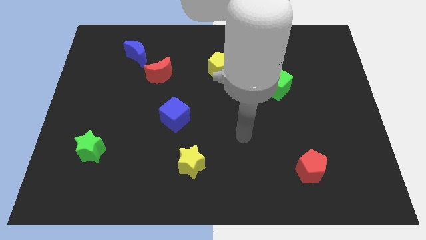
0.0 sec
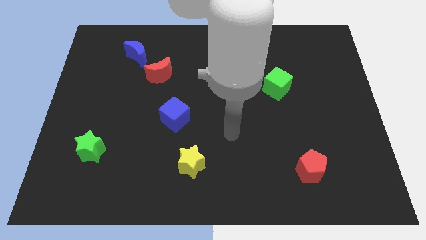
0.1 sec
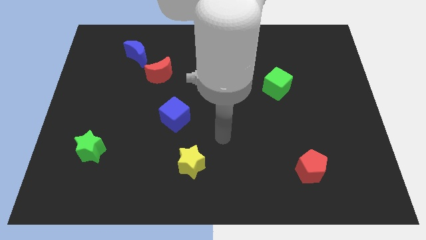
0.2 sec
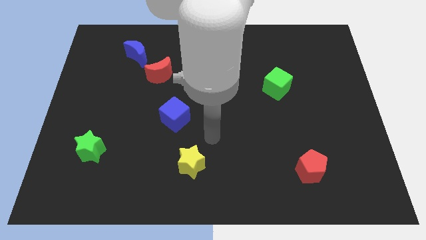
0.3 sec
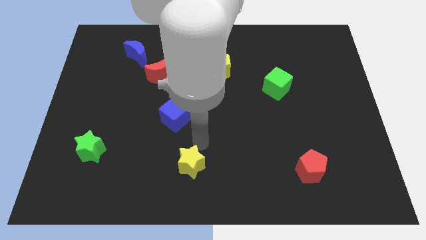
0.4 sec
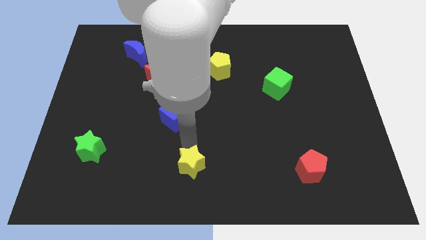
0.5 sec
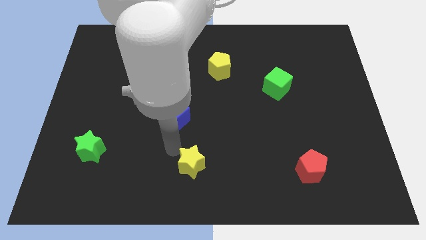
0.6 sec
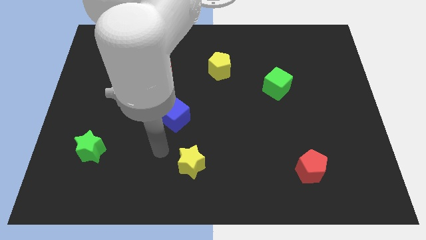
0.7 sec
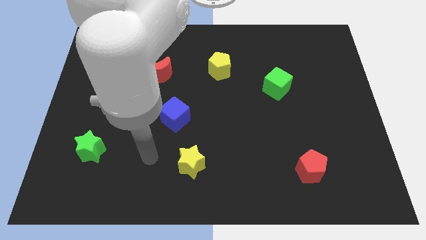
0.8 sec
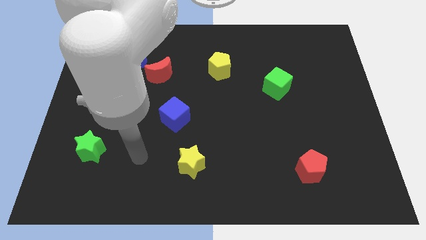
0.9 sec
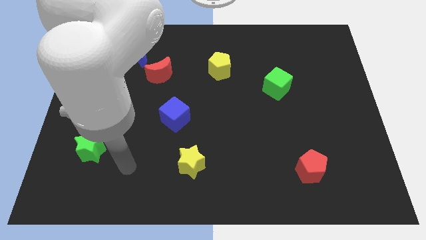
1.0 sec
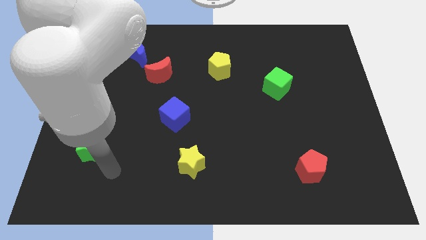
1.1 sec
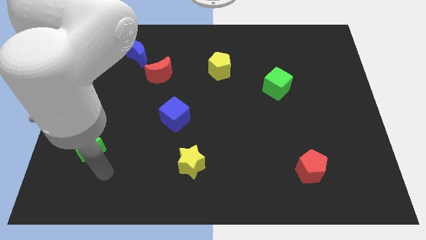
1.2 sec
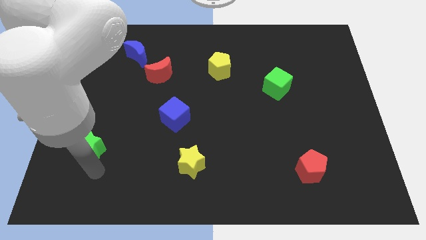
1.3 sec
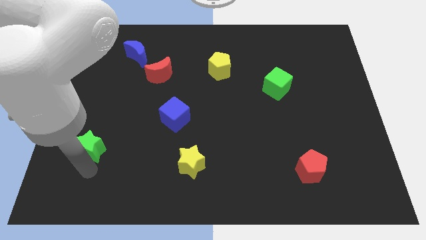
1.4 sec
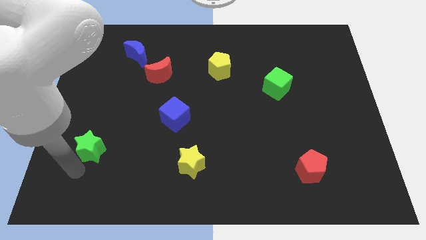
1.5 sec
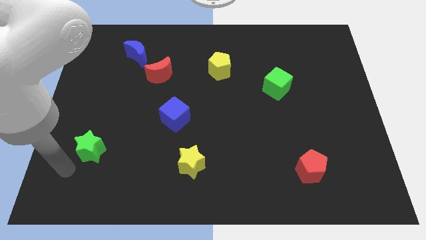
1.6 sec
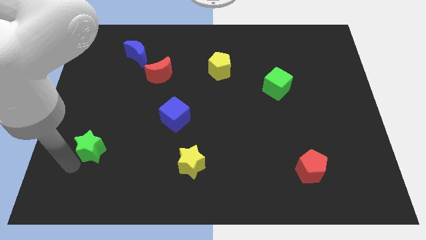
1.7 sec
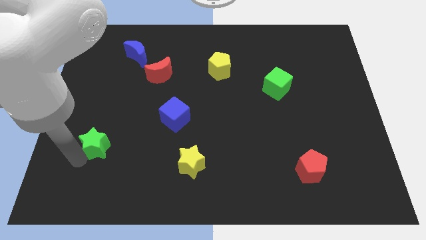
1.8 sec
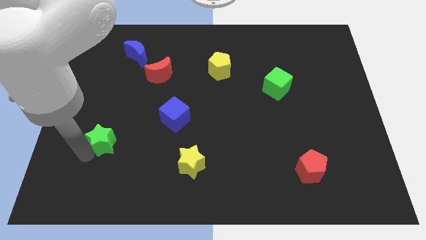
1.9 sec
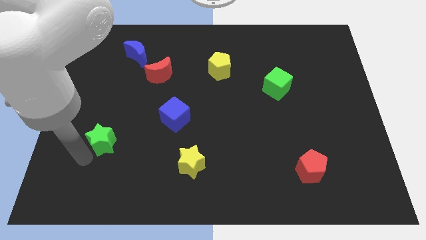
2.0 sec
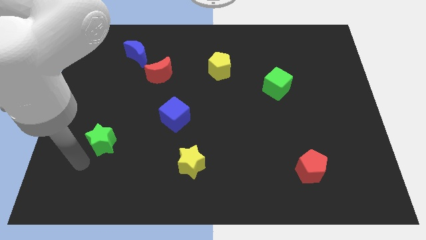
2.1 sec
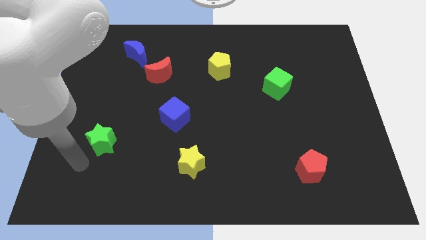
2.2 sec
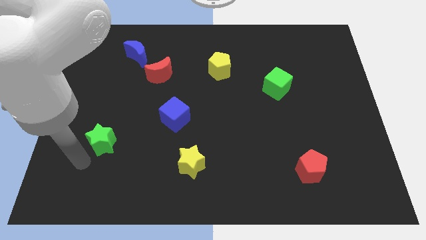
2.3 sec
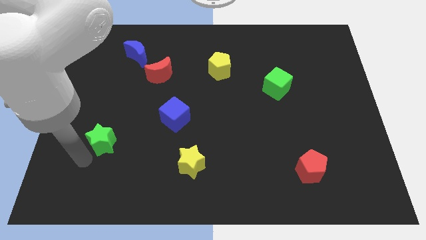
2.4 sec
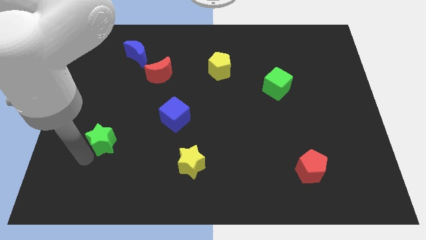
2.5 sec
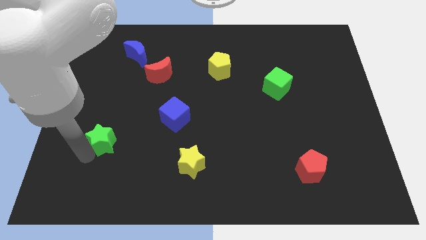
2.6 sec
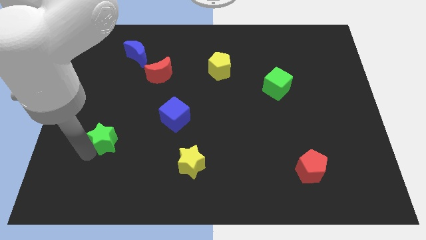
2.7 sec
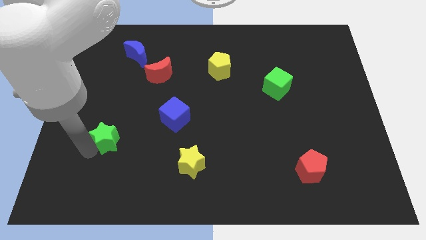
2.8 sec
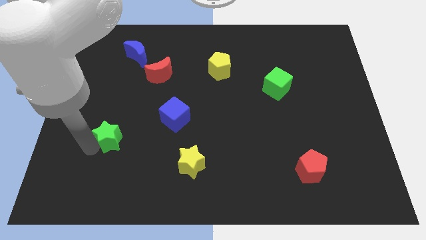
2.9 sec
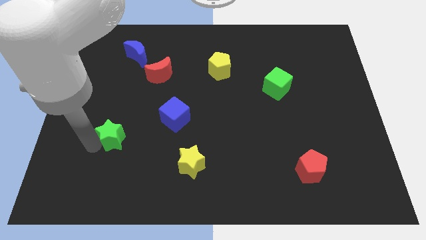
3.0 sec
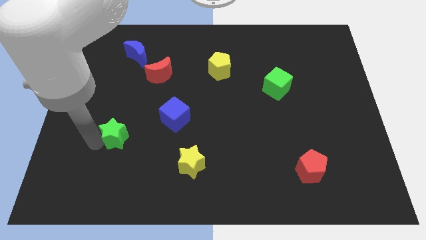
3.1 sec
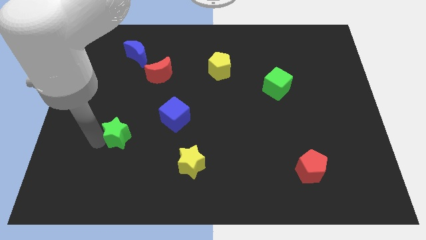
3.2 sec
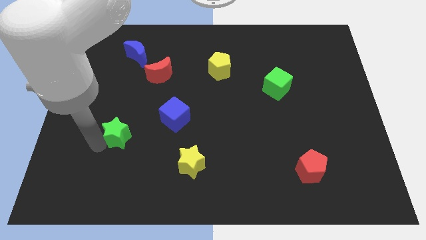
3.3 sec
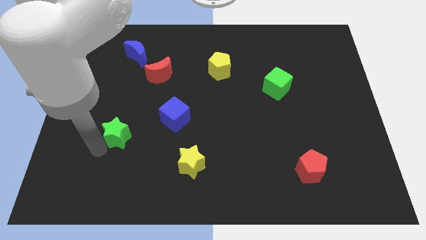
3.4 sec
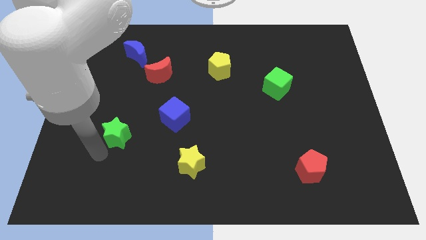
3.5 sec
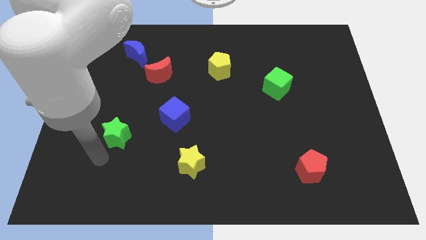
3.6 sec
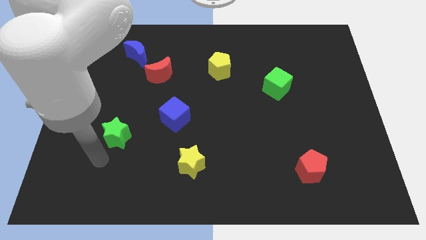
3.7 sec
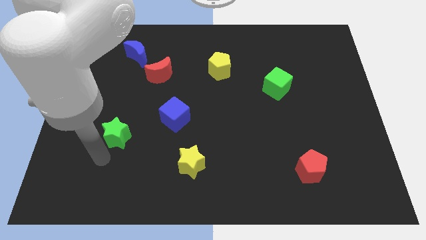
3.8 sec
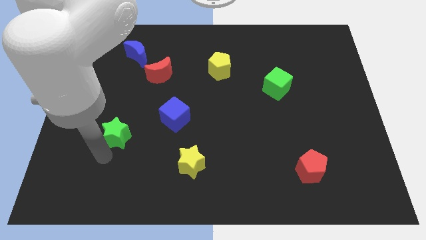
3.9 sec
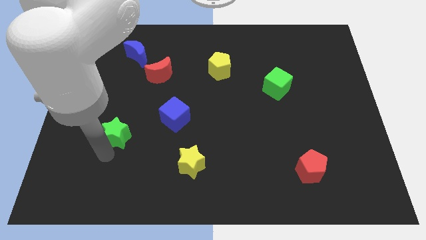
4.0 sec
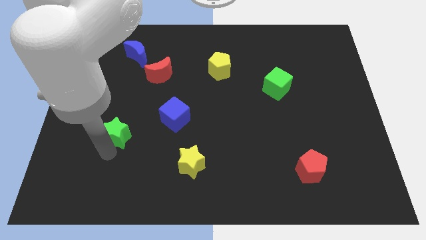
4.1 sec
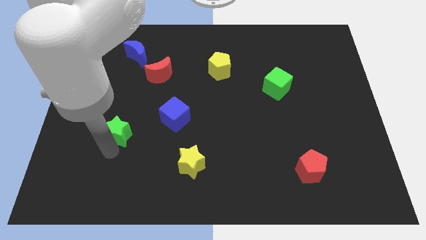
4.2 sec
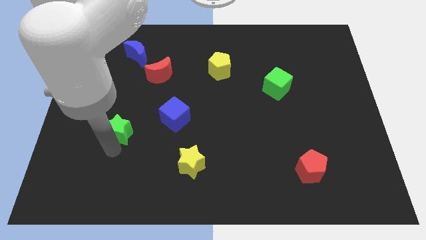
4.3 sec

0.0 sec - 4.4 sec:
push the green star diagonally upwards and to the right a bit

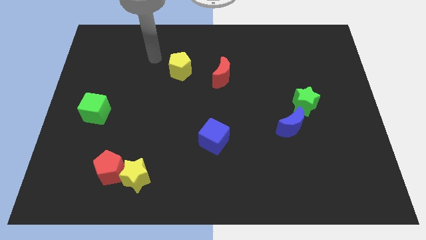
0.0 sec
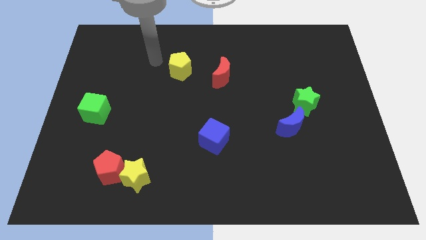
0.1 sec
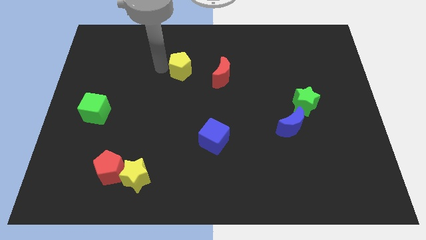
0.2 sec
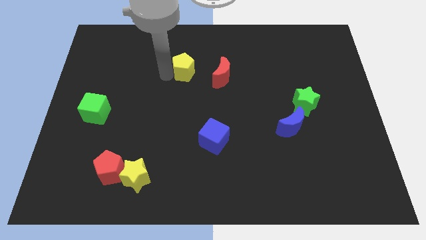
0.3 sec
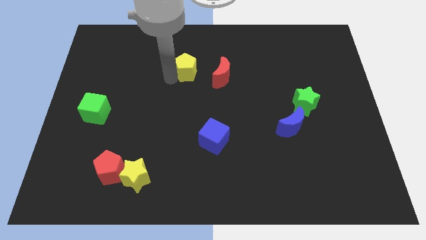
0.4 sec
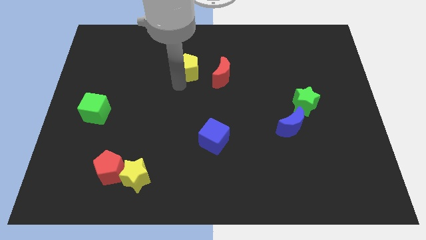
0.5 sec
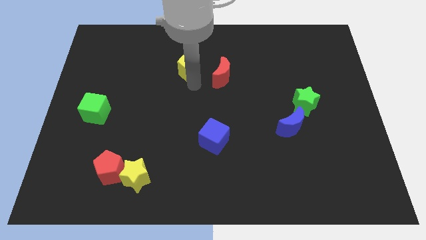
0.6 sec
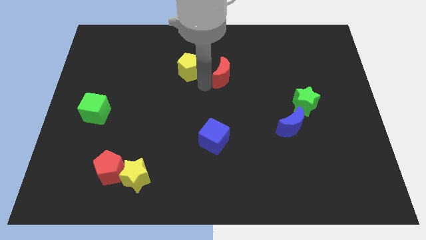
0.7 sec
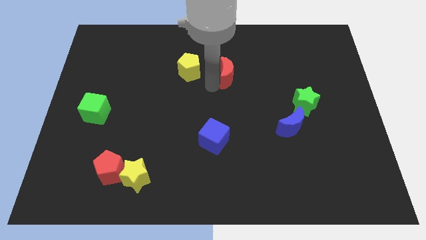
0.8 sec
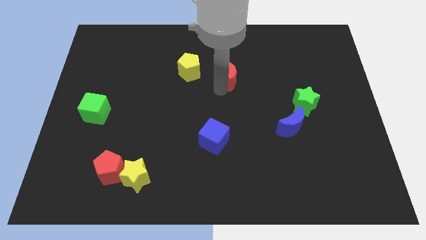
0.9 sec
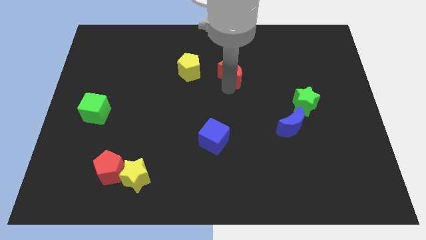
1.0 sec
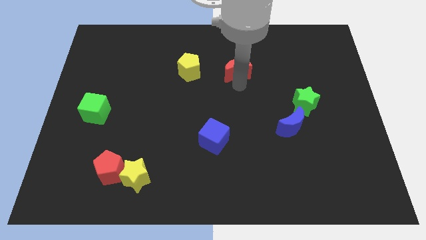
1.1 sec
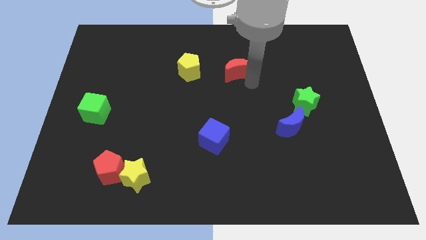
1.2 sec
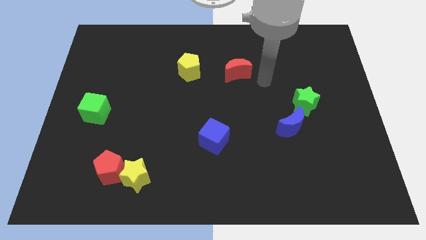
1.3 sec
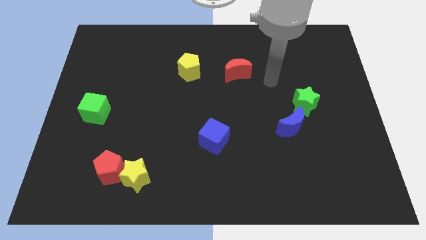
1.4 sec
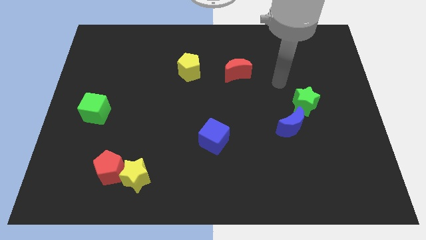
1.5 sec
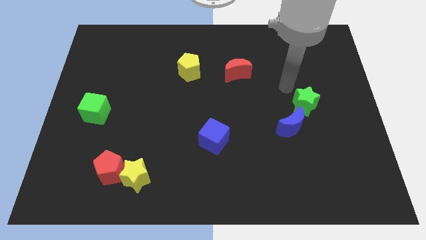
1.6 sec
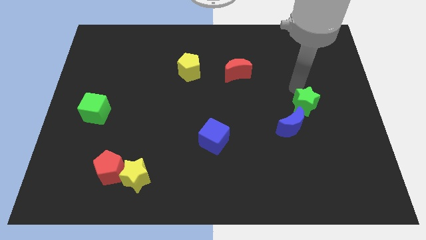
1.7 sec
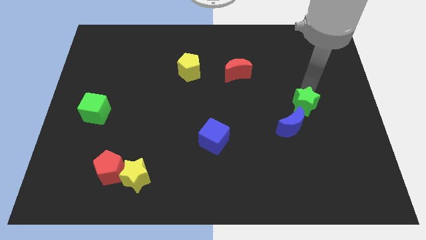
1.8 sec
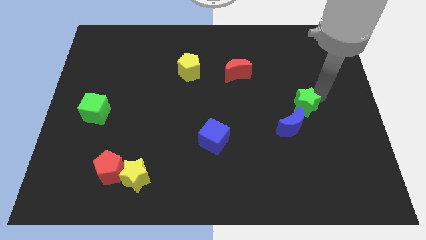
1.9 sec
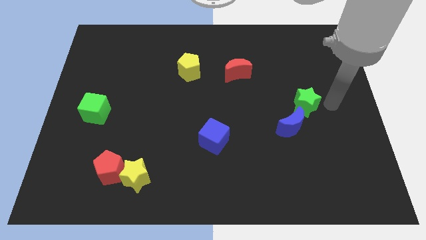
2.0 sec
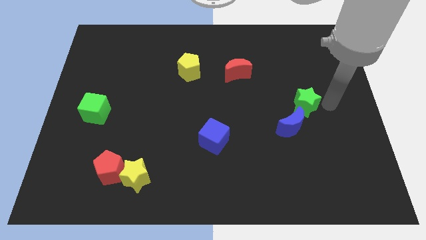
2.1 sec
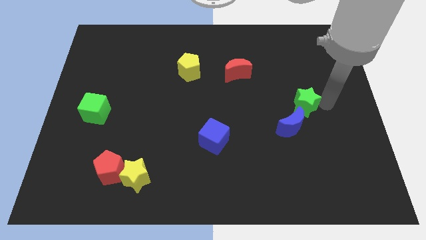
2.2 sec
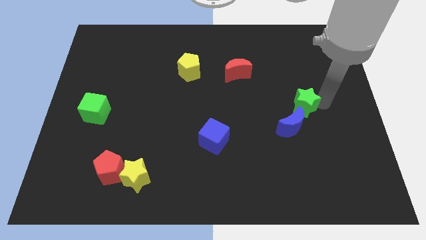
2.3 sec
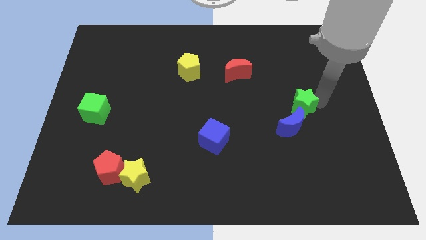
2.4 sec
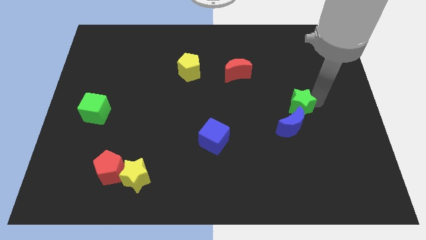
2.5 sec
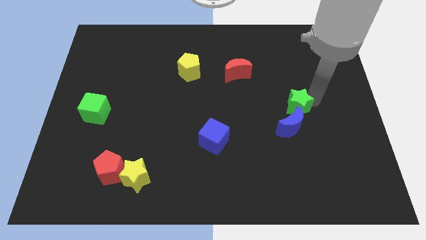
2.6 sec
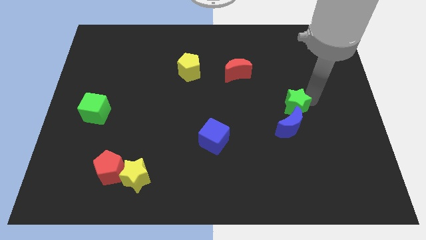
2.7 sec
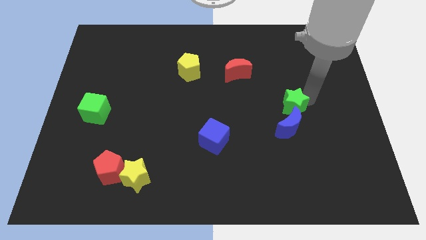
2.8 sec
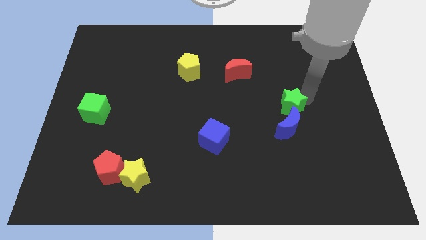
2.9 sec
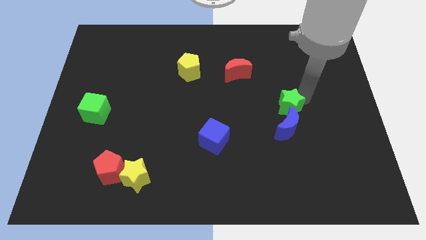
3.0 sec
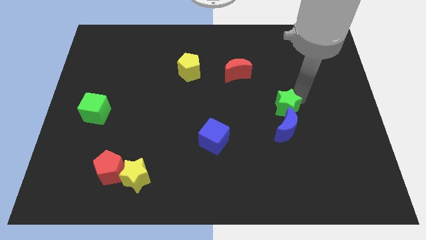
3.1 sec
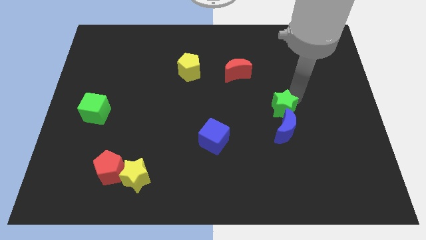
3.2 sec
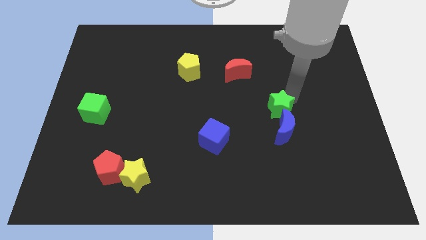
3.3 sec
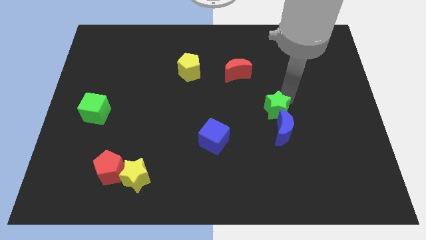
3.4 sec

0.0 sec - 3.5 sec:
slightly move the green star to the left

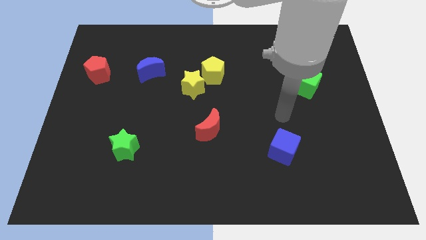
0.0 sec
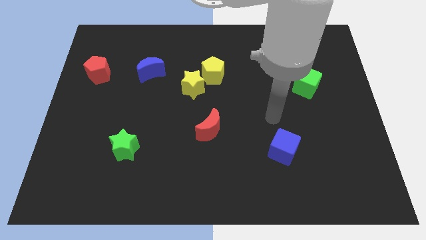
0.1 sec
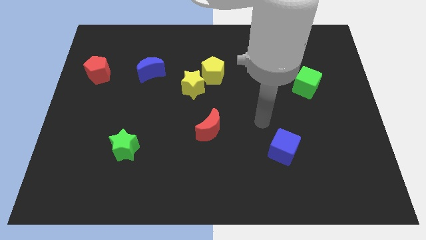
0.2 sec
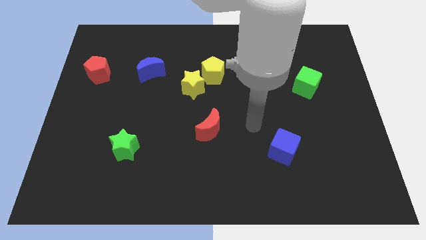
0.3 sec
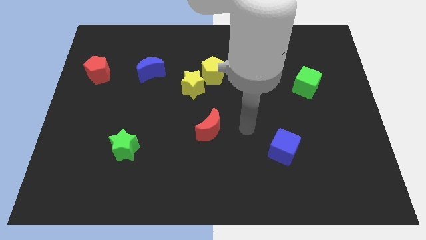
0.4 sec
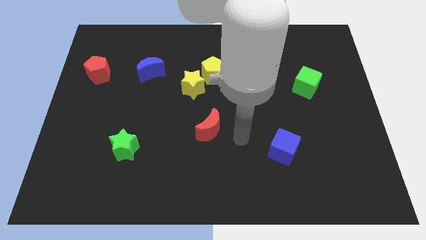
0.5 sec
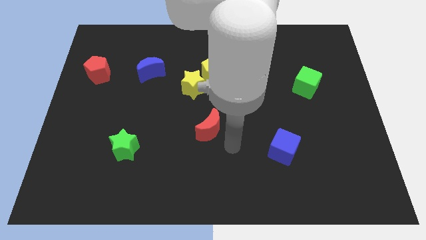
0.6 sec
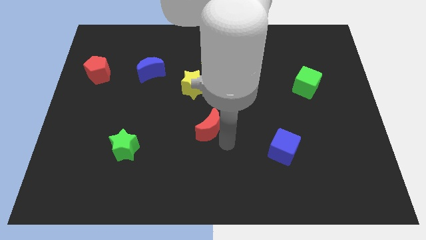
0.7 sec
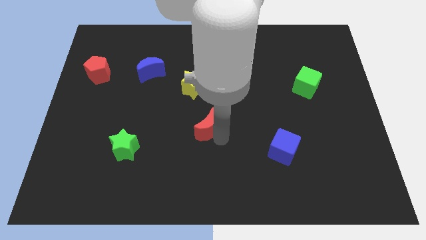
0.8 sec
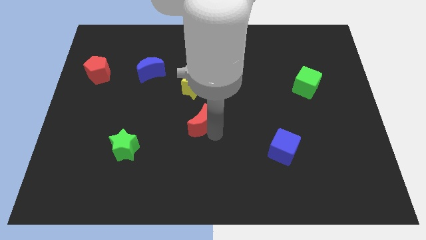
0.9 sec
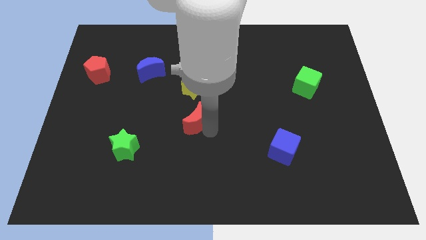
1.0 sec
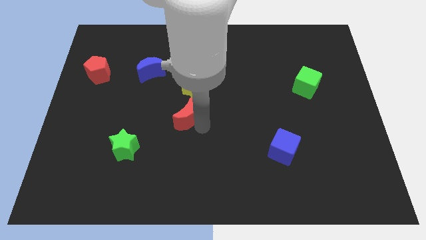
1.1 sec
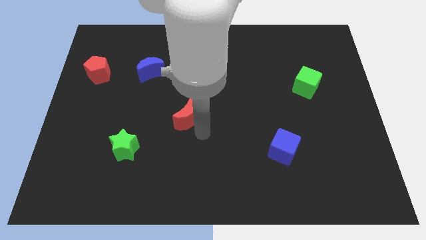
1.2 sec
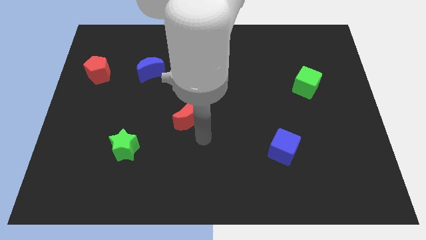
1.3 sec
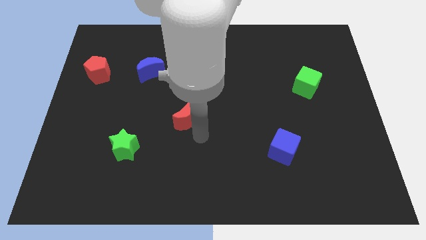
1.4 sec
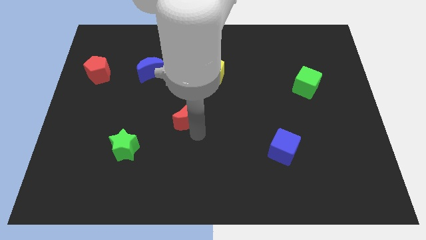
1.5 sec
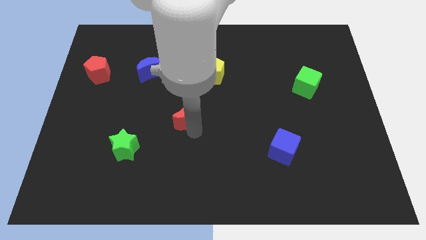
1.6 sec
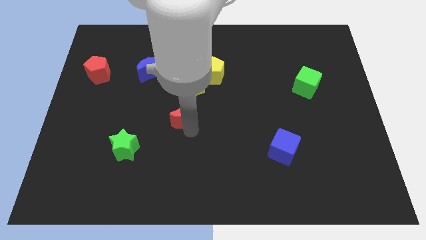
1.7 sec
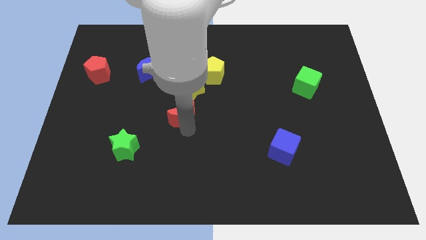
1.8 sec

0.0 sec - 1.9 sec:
slightly push the red moon up and then to the left
